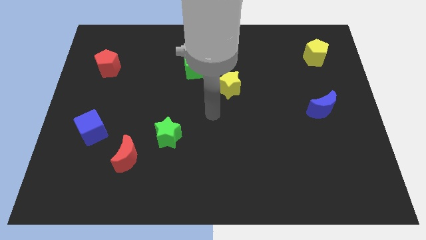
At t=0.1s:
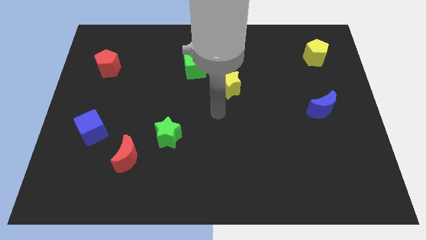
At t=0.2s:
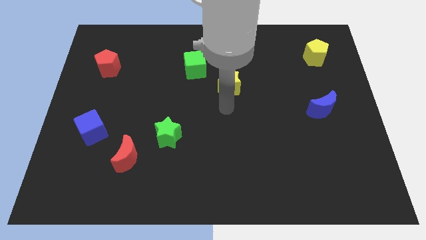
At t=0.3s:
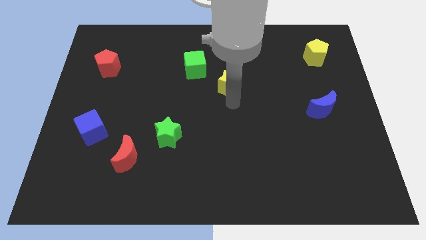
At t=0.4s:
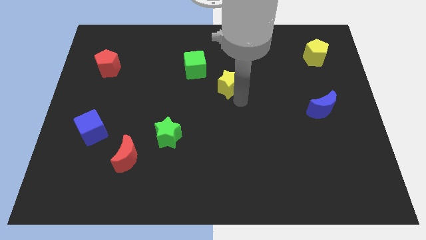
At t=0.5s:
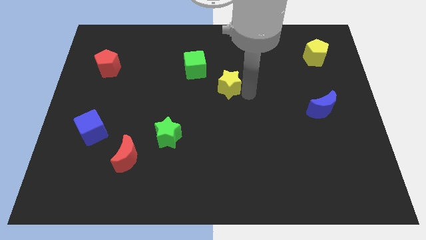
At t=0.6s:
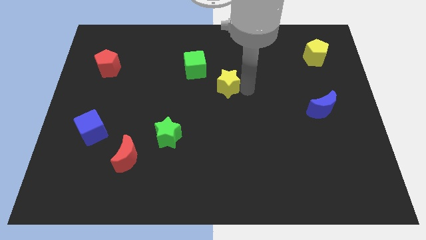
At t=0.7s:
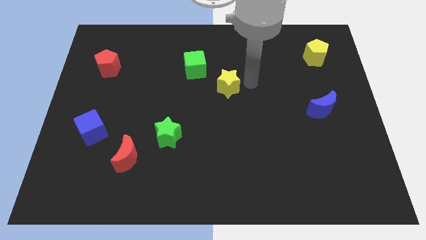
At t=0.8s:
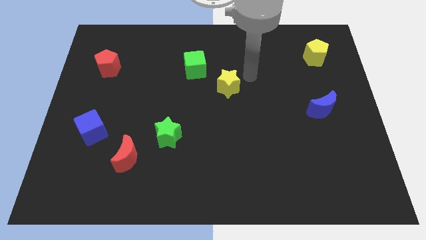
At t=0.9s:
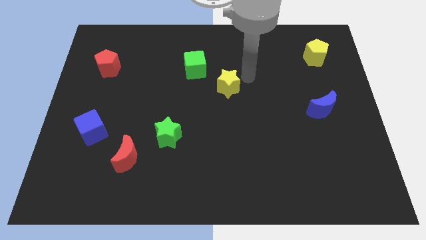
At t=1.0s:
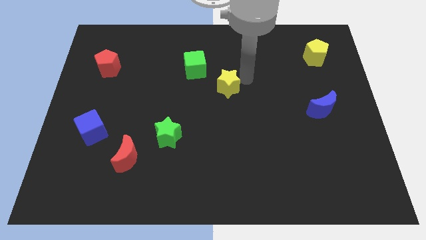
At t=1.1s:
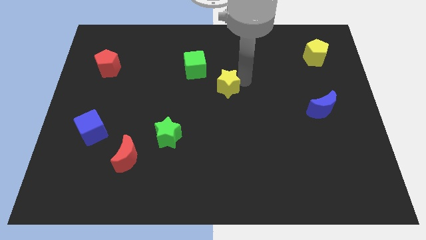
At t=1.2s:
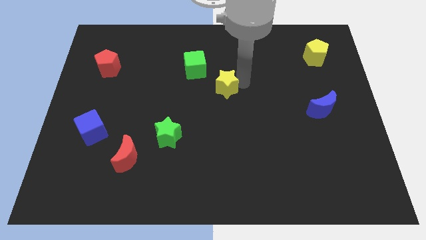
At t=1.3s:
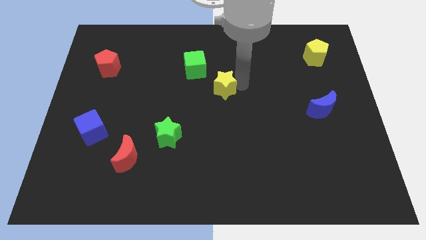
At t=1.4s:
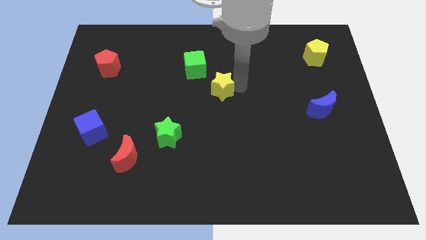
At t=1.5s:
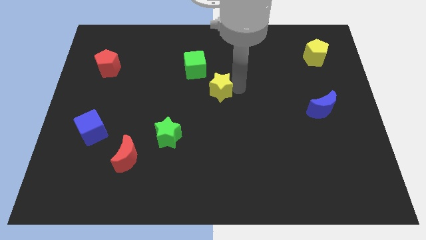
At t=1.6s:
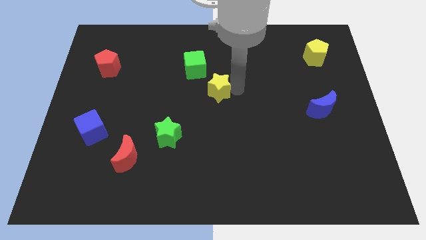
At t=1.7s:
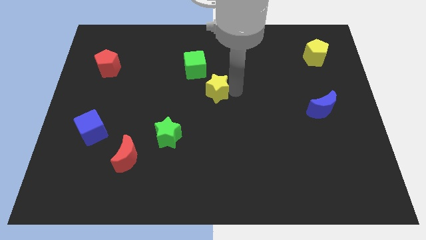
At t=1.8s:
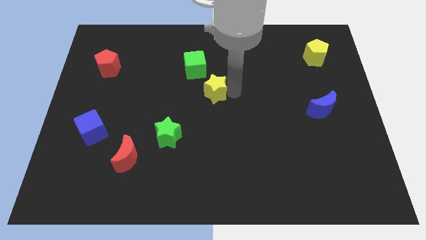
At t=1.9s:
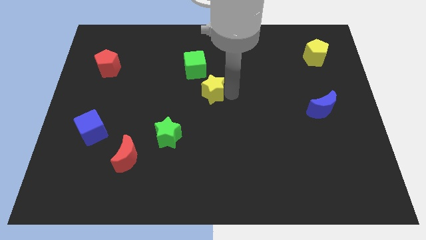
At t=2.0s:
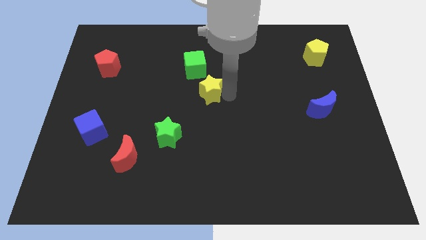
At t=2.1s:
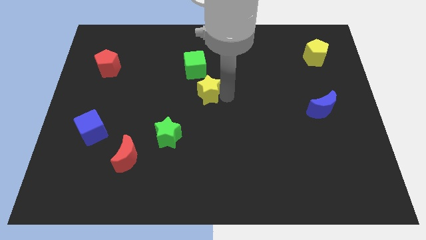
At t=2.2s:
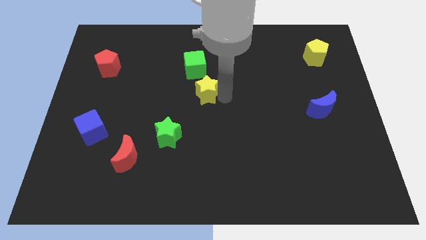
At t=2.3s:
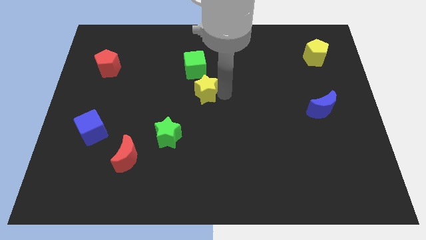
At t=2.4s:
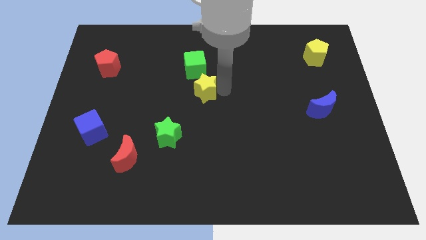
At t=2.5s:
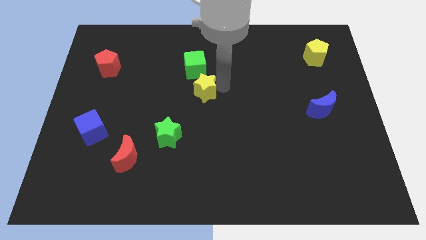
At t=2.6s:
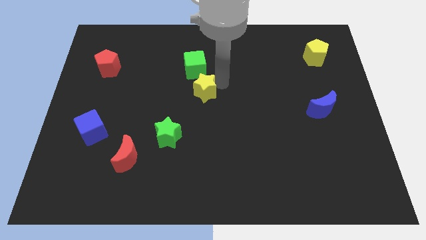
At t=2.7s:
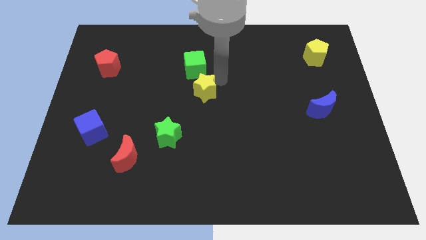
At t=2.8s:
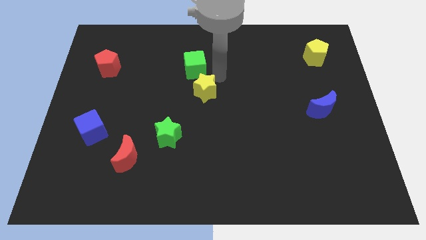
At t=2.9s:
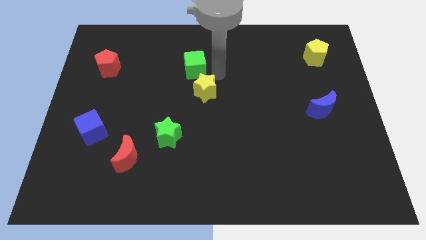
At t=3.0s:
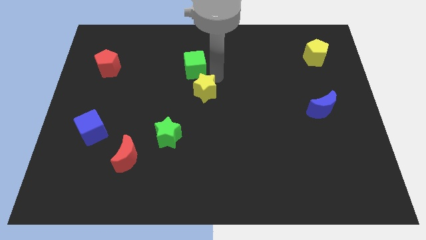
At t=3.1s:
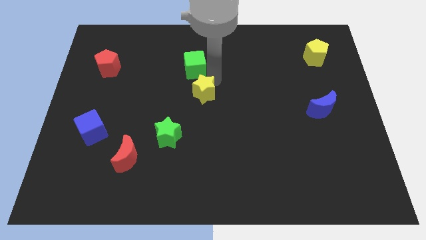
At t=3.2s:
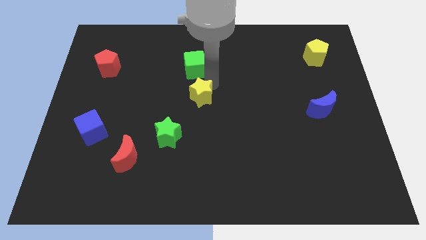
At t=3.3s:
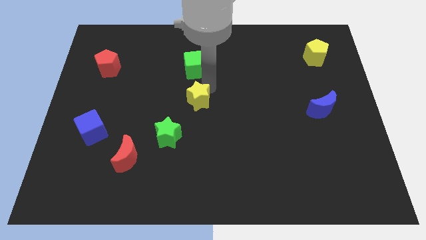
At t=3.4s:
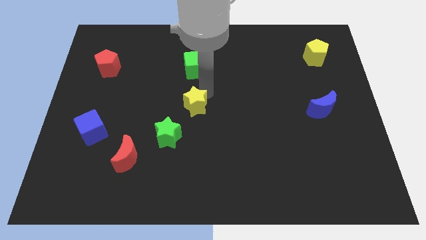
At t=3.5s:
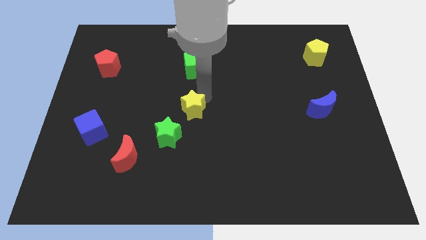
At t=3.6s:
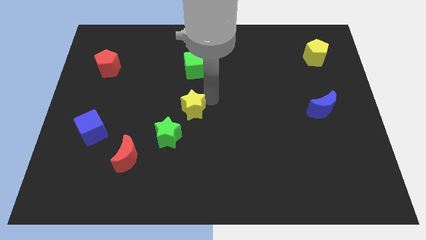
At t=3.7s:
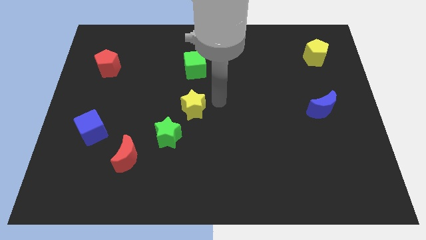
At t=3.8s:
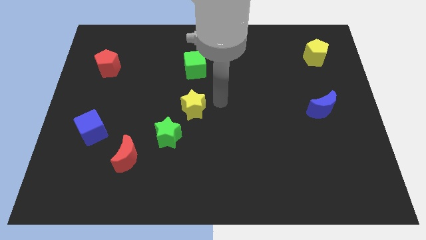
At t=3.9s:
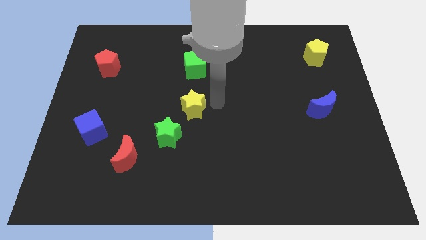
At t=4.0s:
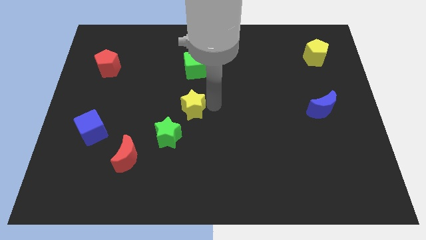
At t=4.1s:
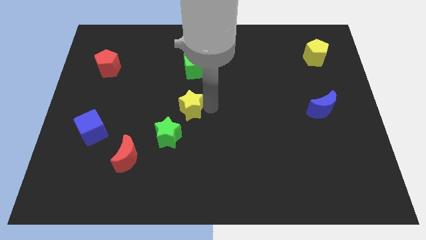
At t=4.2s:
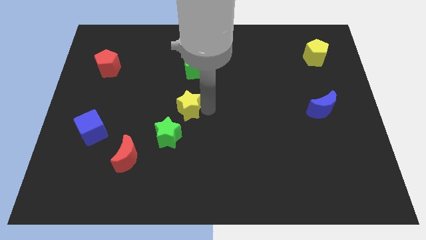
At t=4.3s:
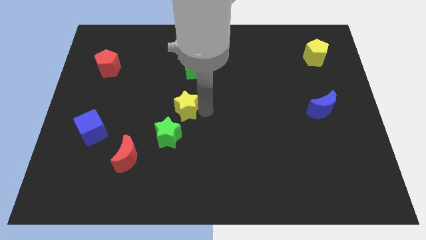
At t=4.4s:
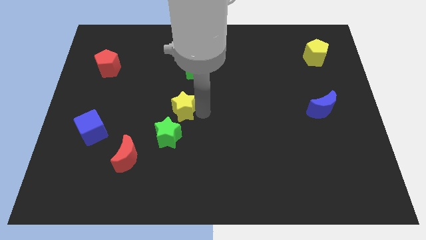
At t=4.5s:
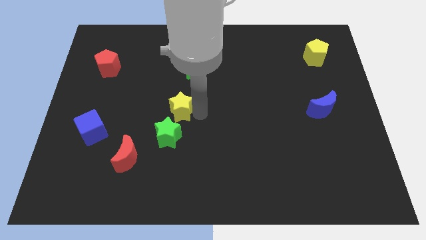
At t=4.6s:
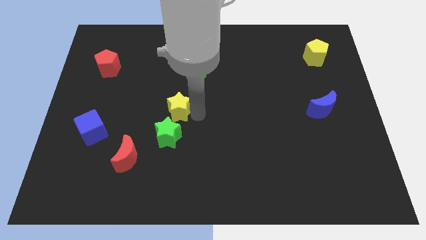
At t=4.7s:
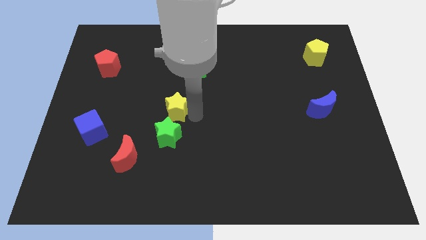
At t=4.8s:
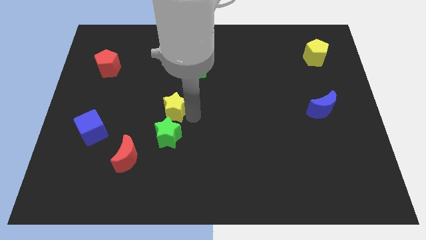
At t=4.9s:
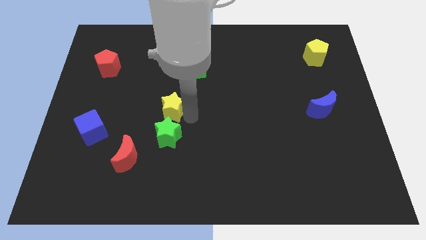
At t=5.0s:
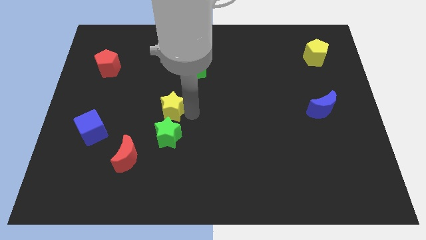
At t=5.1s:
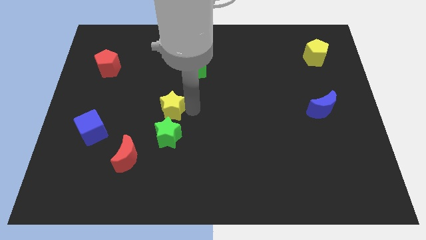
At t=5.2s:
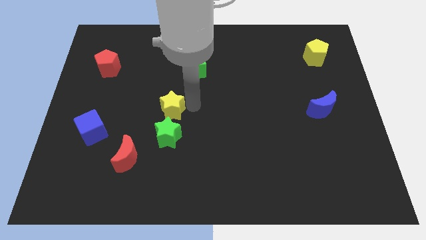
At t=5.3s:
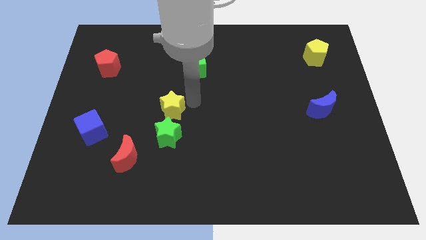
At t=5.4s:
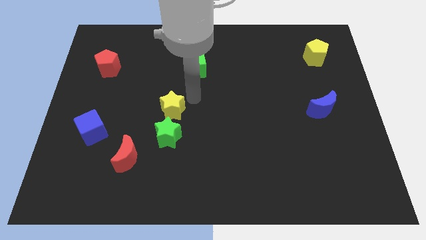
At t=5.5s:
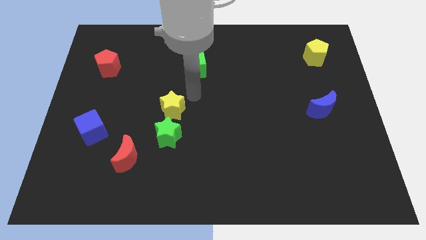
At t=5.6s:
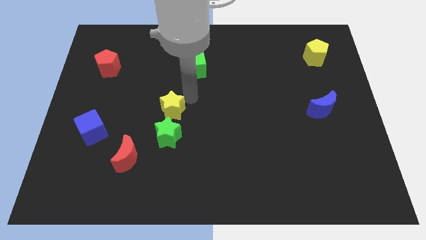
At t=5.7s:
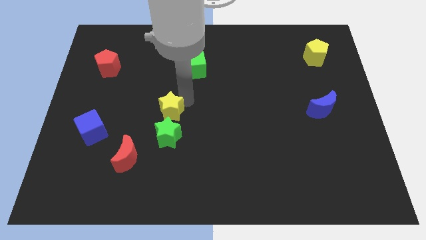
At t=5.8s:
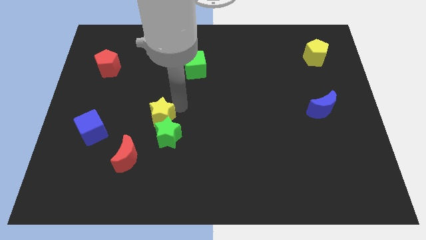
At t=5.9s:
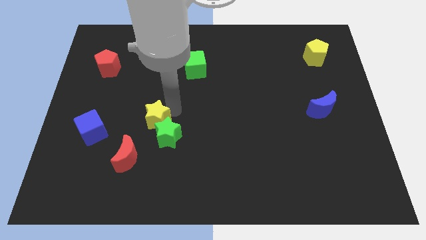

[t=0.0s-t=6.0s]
move the yellow star to the right side of the blue cube

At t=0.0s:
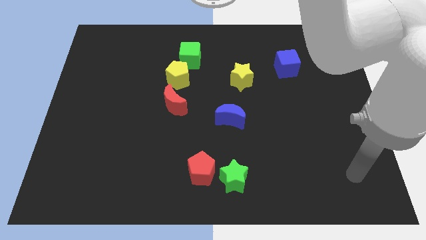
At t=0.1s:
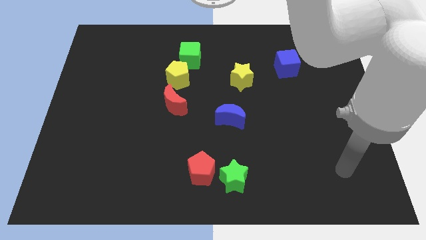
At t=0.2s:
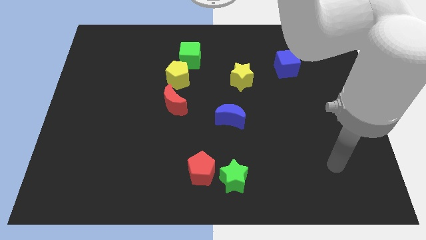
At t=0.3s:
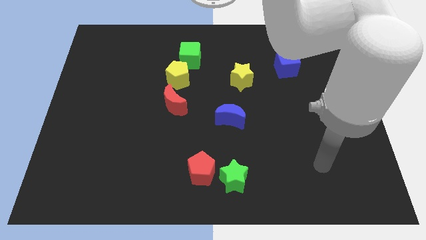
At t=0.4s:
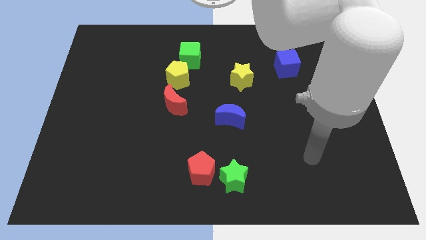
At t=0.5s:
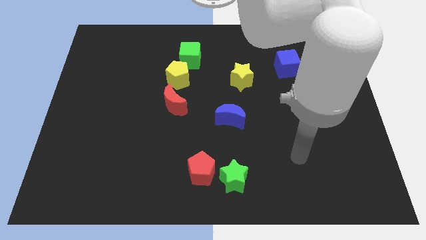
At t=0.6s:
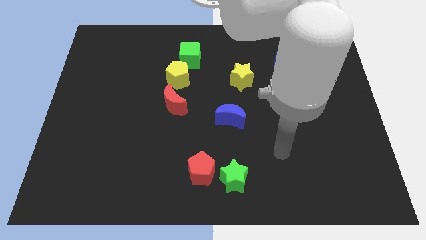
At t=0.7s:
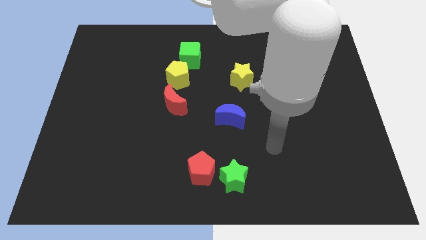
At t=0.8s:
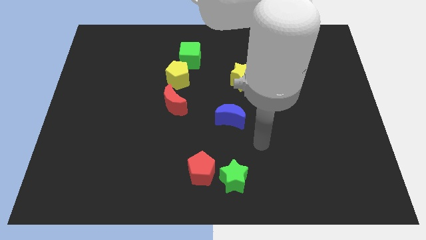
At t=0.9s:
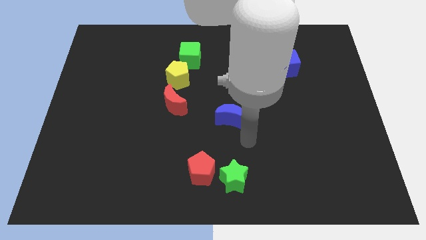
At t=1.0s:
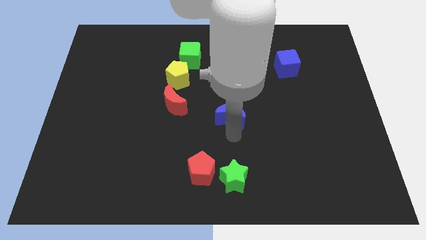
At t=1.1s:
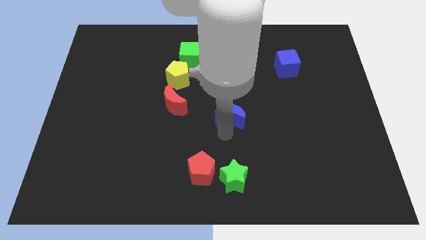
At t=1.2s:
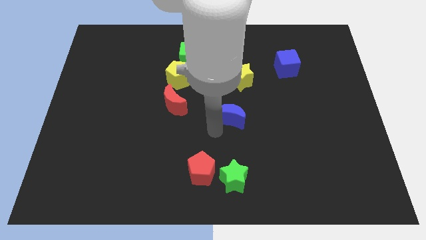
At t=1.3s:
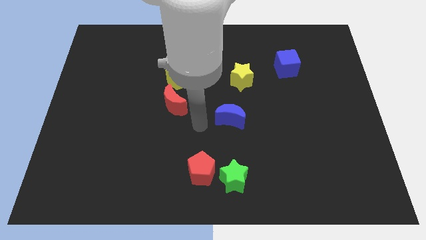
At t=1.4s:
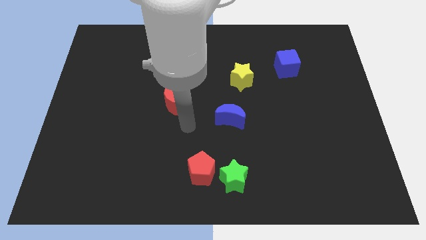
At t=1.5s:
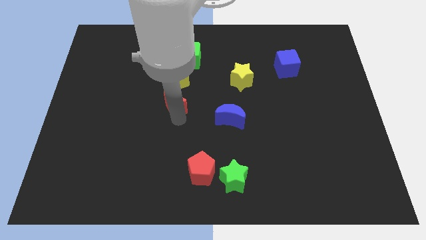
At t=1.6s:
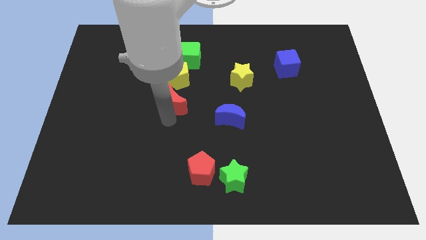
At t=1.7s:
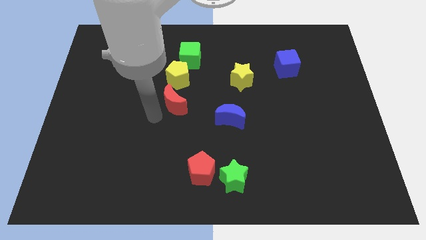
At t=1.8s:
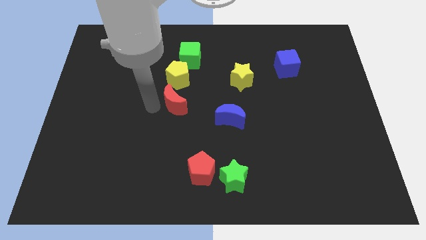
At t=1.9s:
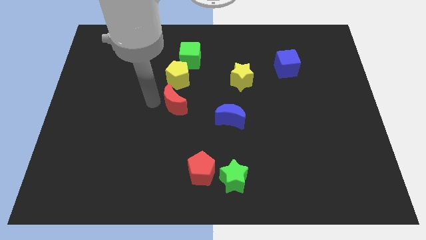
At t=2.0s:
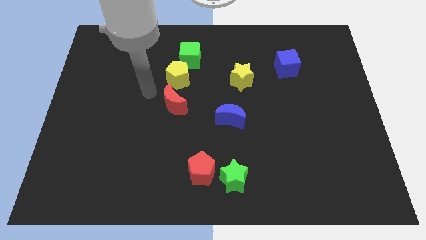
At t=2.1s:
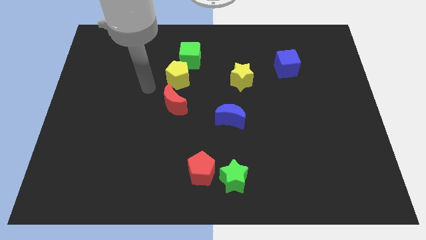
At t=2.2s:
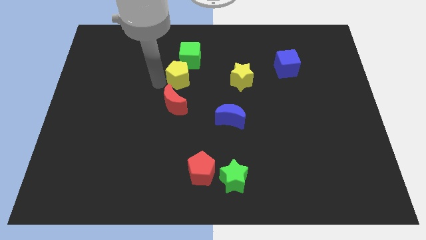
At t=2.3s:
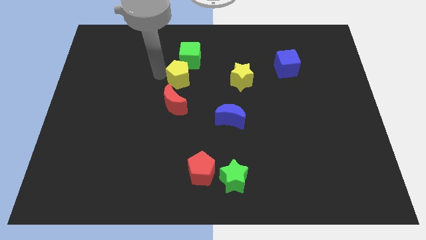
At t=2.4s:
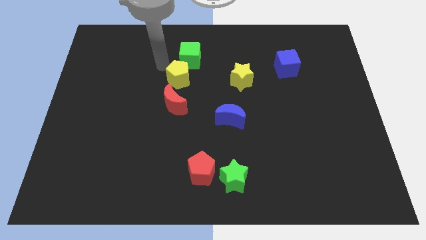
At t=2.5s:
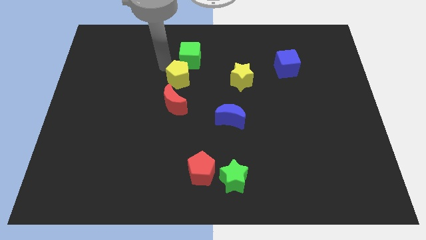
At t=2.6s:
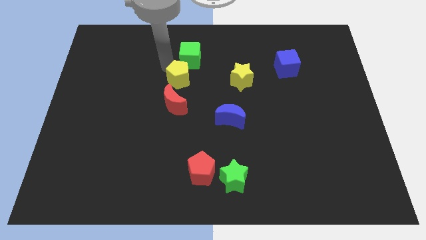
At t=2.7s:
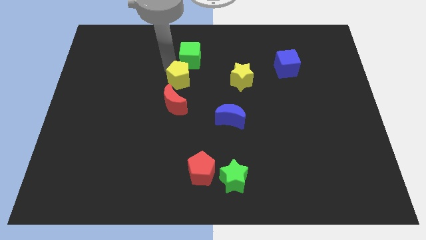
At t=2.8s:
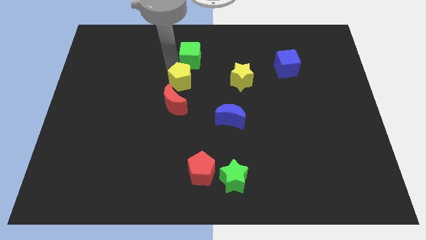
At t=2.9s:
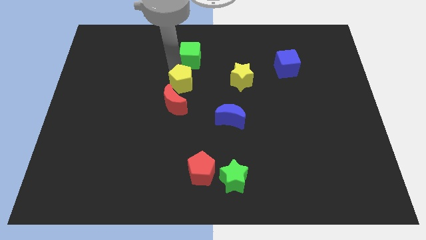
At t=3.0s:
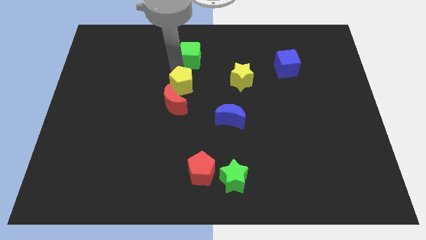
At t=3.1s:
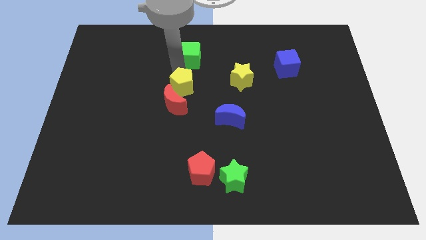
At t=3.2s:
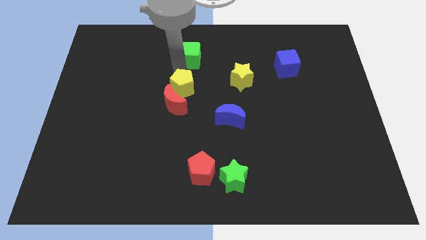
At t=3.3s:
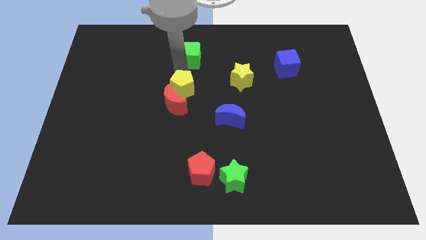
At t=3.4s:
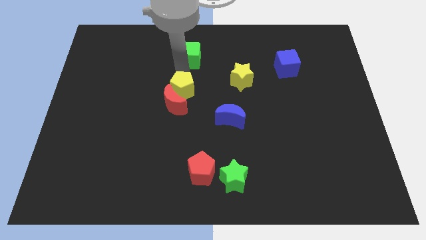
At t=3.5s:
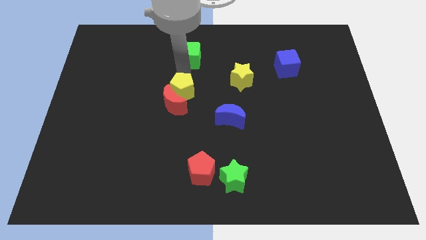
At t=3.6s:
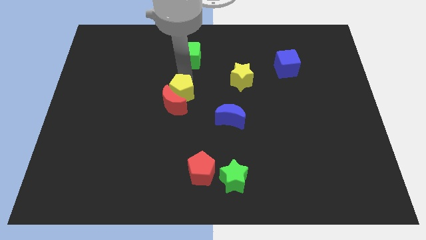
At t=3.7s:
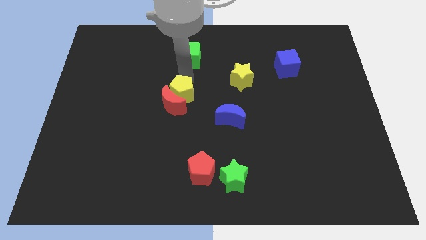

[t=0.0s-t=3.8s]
push the yellow pentagon to the right of the red moon
